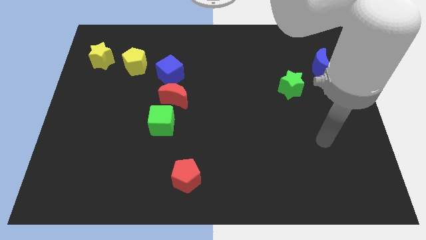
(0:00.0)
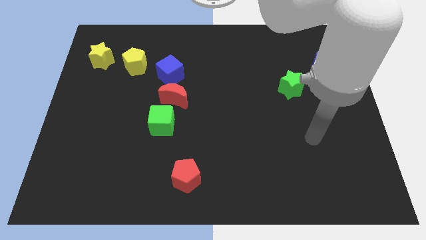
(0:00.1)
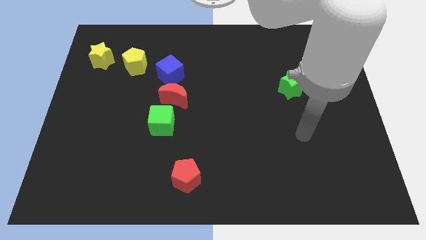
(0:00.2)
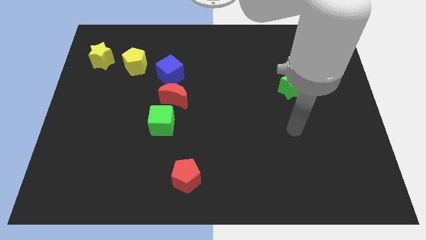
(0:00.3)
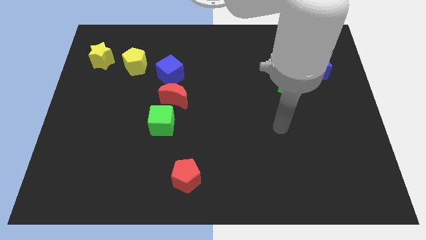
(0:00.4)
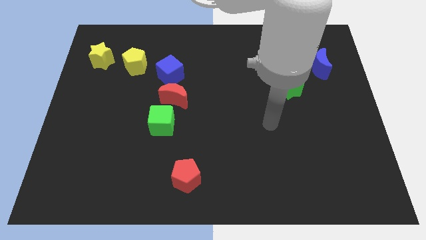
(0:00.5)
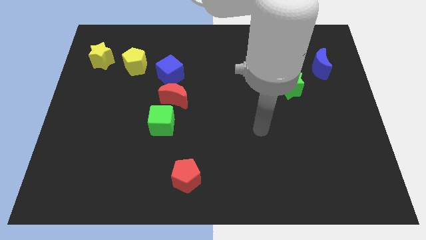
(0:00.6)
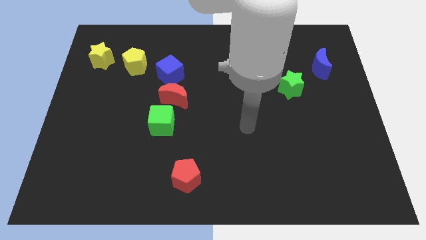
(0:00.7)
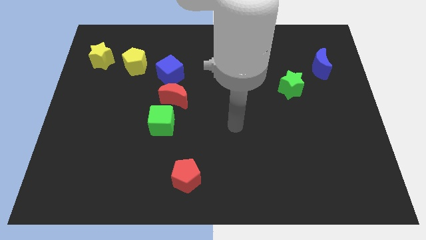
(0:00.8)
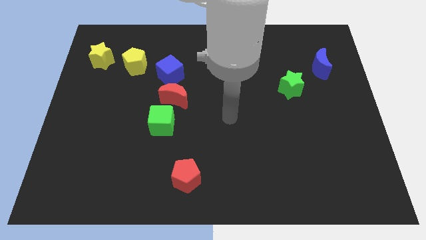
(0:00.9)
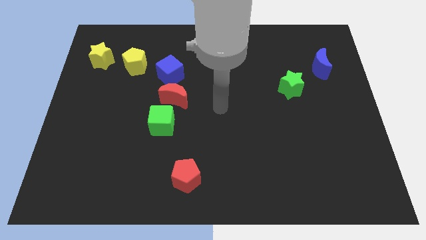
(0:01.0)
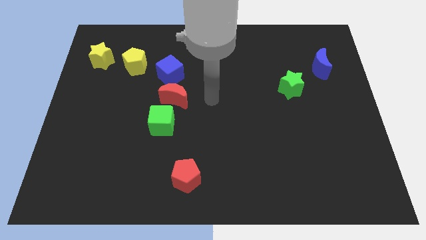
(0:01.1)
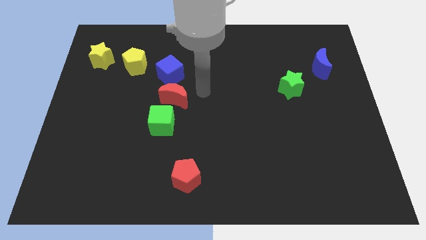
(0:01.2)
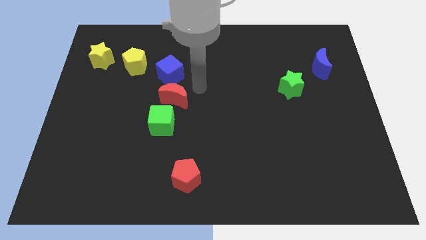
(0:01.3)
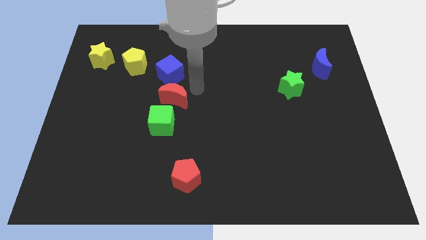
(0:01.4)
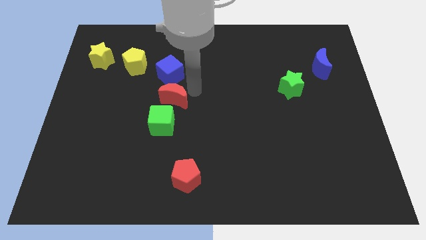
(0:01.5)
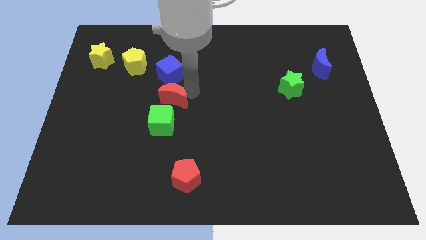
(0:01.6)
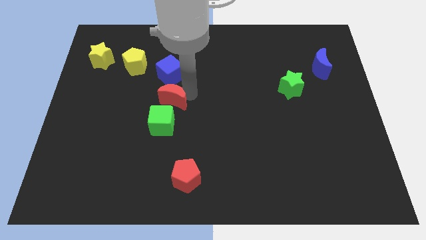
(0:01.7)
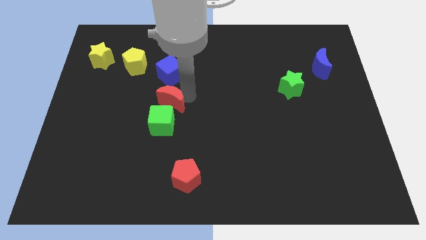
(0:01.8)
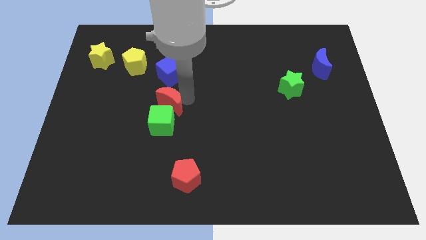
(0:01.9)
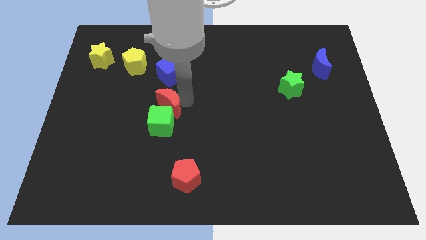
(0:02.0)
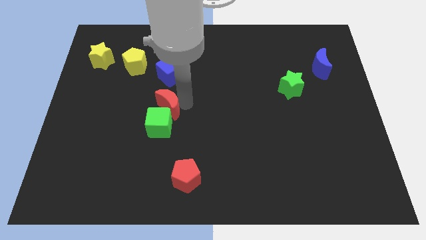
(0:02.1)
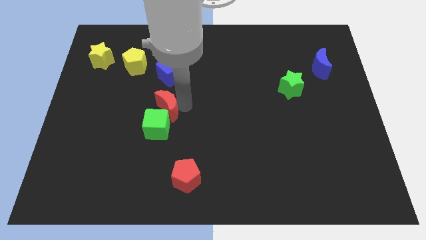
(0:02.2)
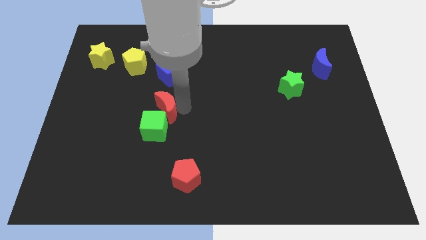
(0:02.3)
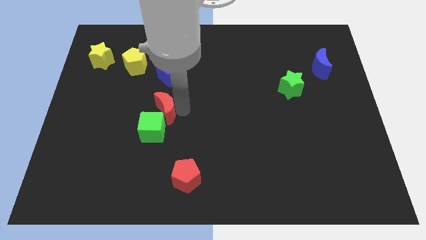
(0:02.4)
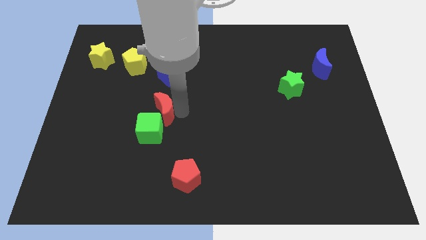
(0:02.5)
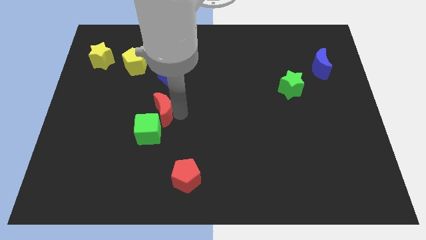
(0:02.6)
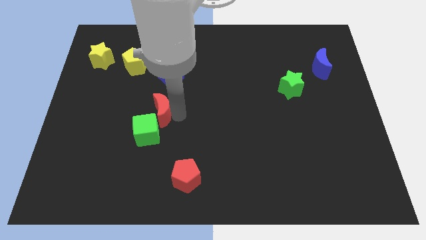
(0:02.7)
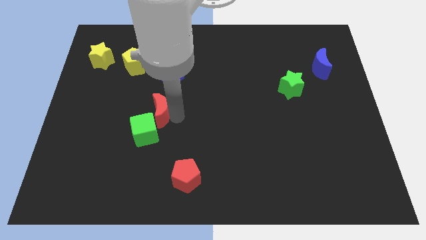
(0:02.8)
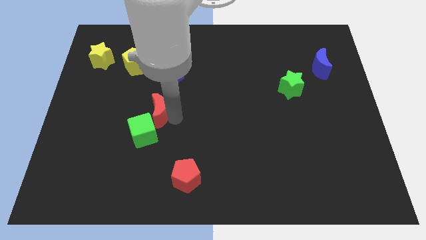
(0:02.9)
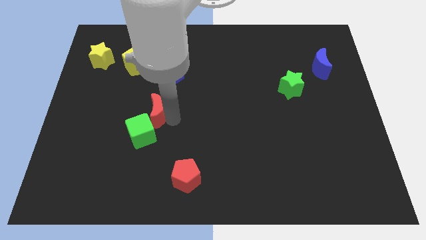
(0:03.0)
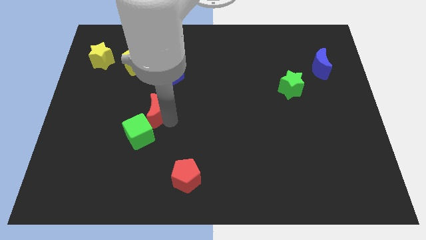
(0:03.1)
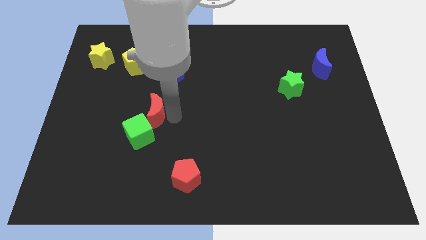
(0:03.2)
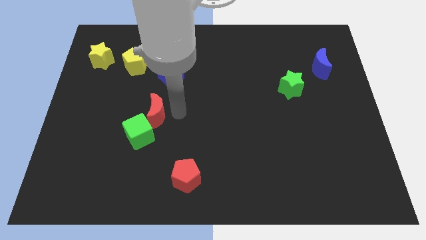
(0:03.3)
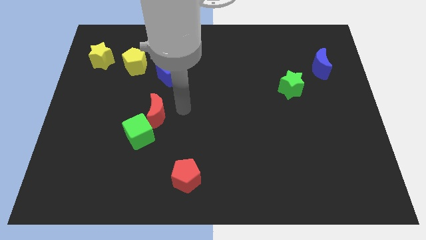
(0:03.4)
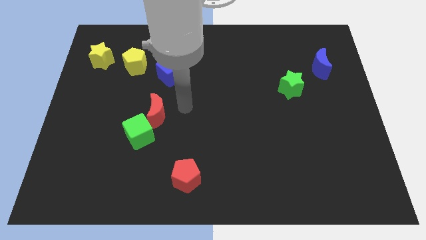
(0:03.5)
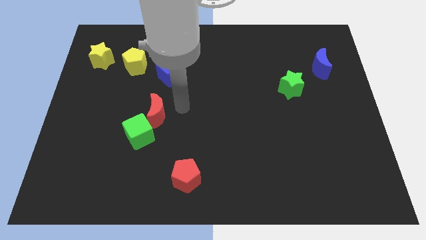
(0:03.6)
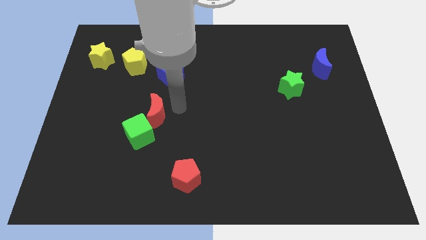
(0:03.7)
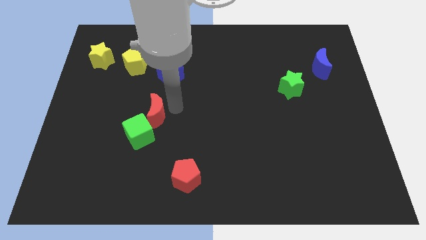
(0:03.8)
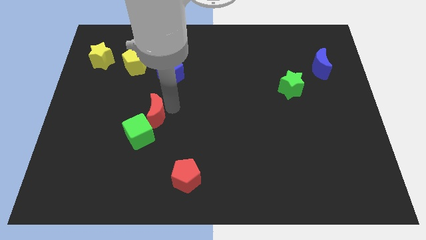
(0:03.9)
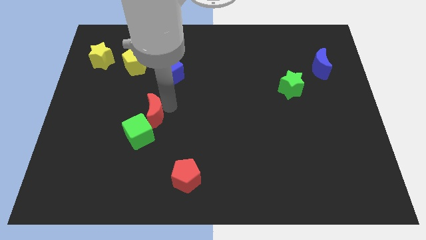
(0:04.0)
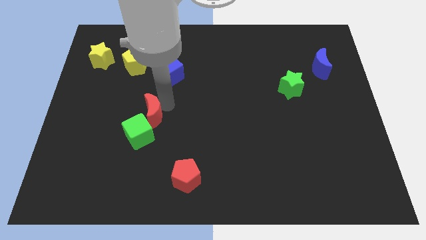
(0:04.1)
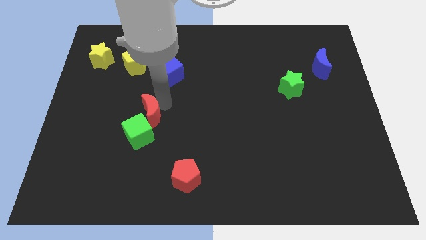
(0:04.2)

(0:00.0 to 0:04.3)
slightly move the red moon down and to the left

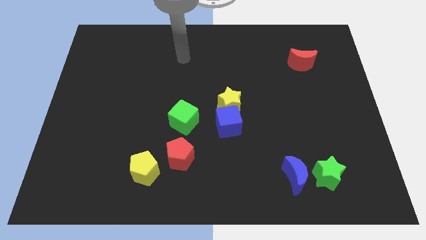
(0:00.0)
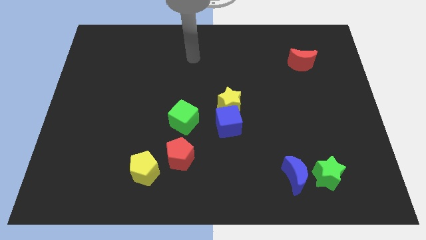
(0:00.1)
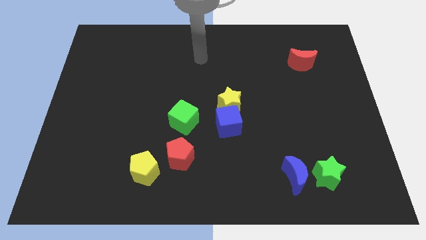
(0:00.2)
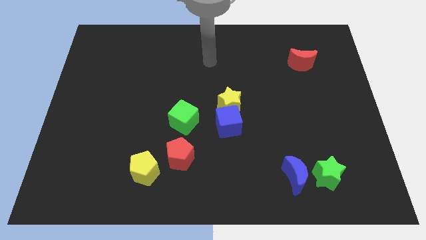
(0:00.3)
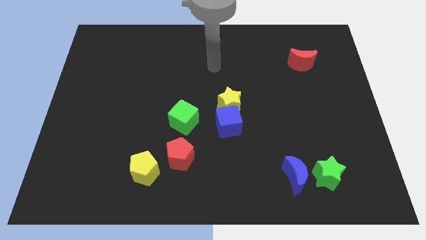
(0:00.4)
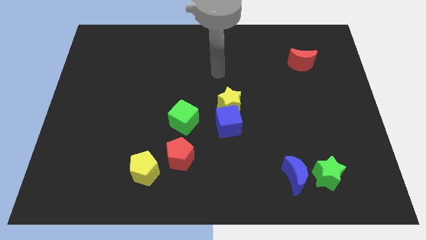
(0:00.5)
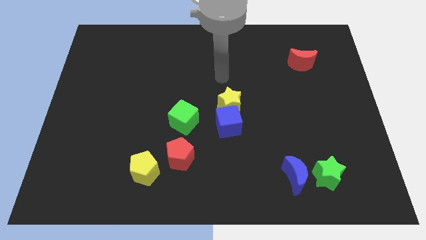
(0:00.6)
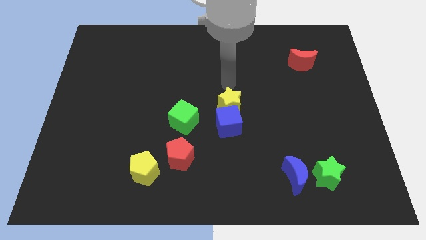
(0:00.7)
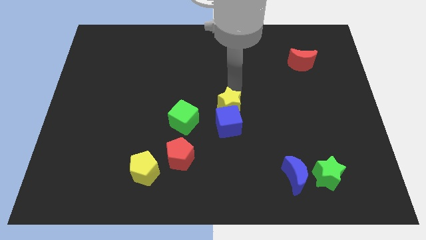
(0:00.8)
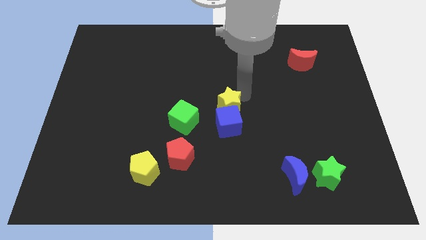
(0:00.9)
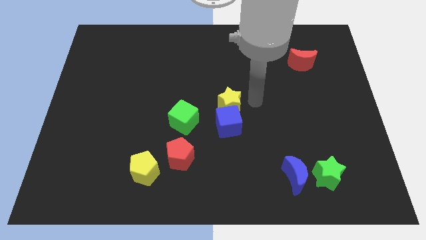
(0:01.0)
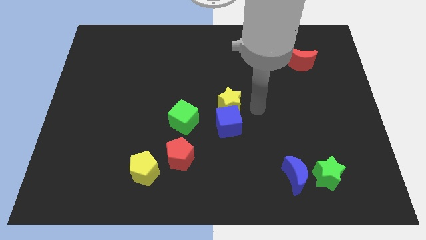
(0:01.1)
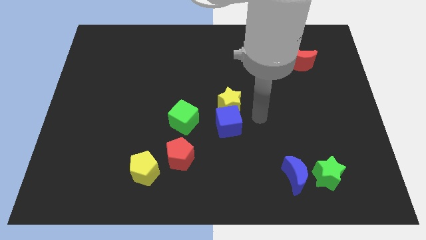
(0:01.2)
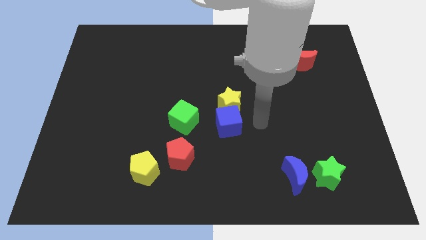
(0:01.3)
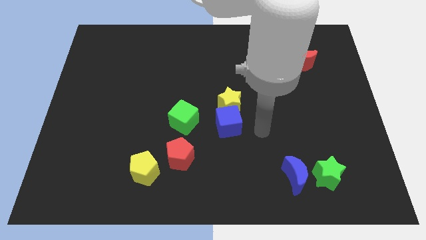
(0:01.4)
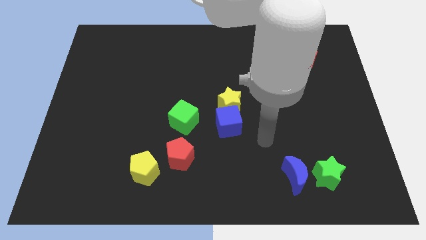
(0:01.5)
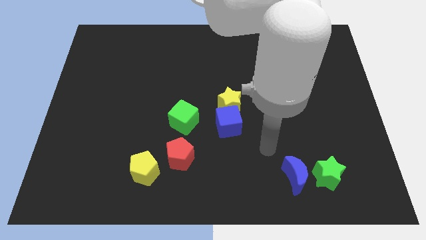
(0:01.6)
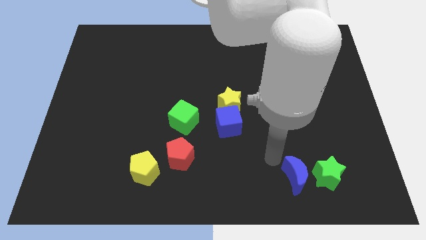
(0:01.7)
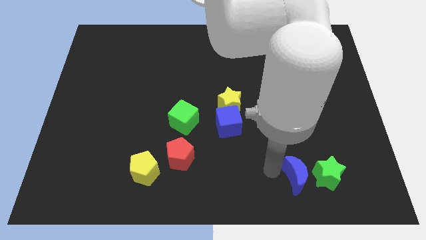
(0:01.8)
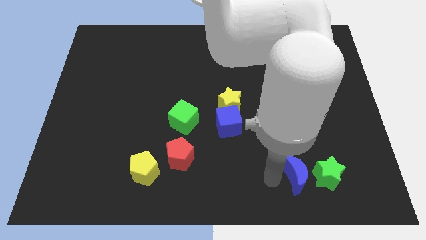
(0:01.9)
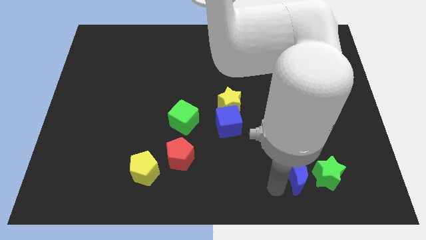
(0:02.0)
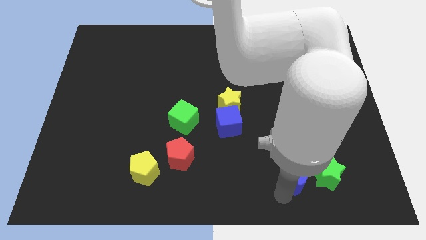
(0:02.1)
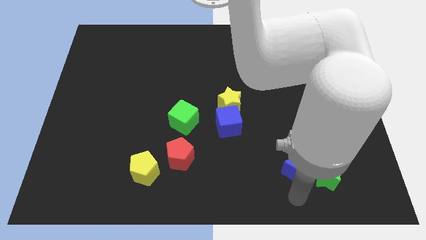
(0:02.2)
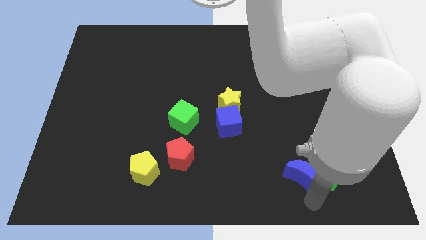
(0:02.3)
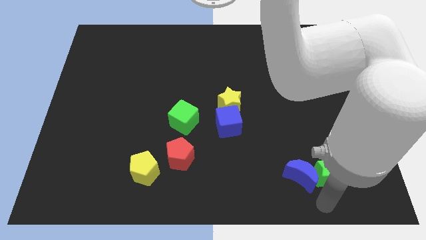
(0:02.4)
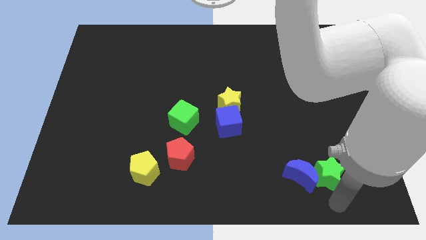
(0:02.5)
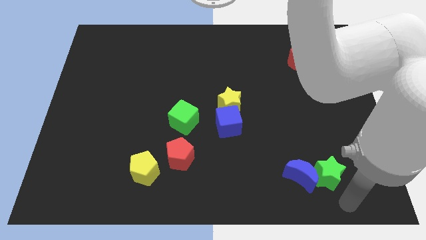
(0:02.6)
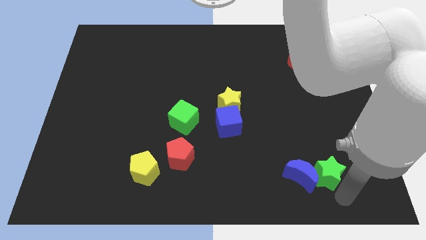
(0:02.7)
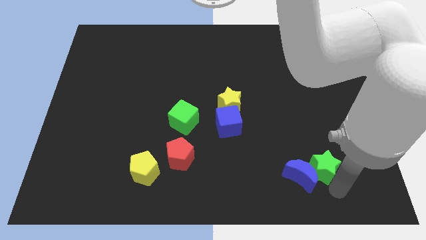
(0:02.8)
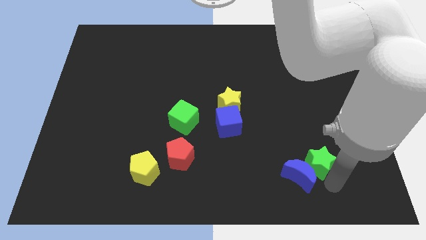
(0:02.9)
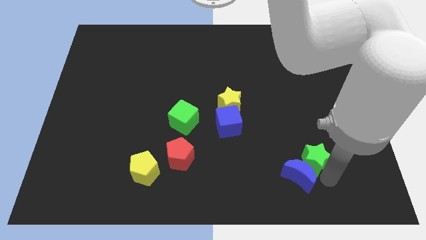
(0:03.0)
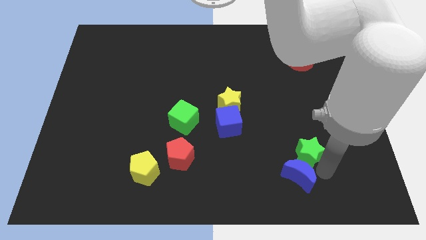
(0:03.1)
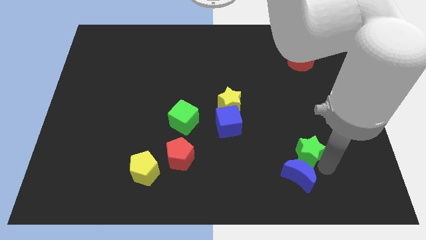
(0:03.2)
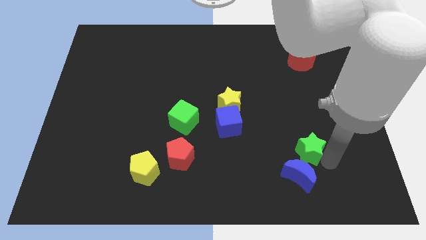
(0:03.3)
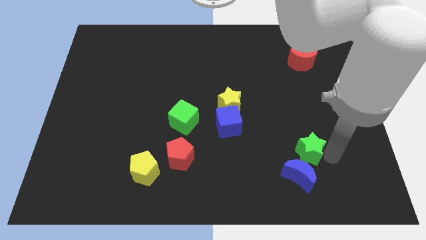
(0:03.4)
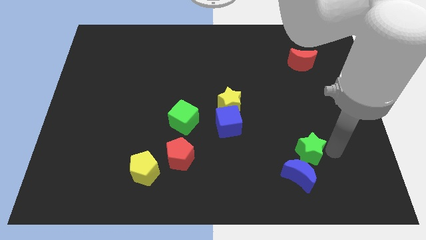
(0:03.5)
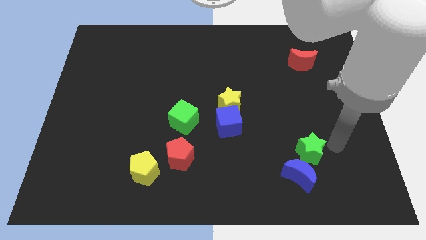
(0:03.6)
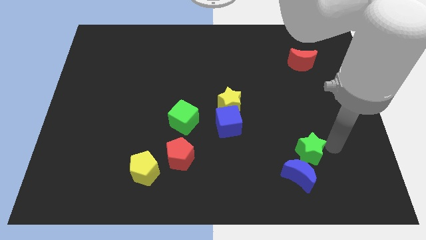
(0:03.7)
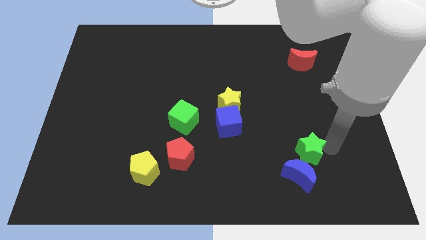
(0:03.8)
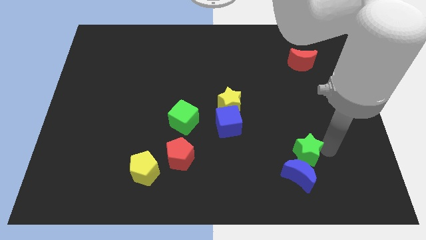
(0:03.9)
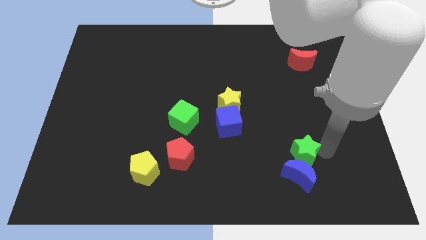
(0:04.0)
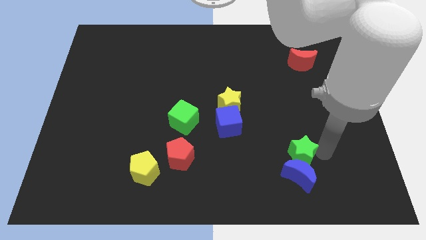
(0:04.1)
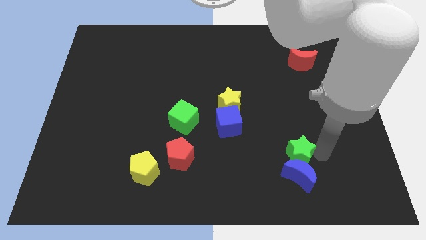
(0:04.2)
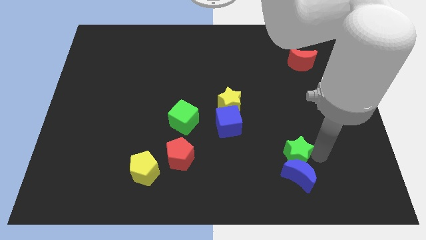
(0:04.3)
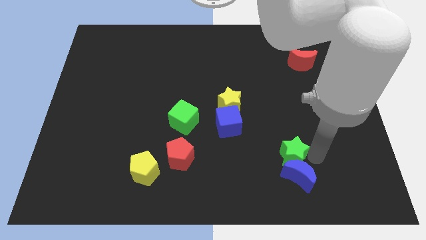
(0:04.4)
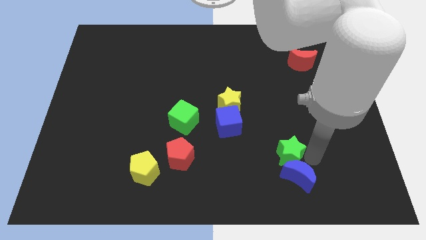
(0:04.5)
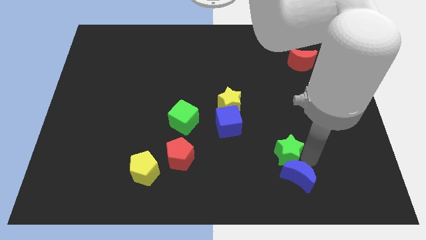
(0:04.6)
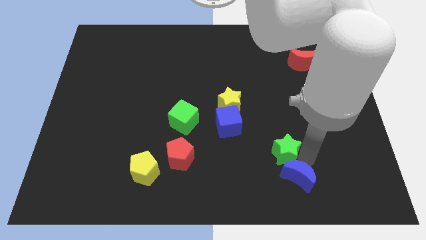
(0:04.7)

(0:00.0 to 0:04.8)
move the green star left slightly
